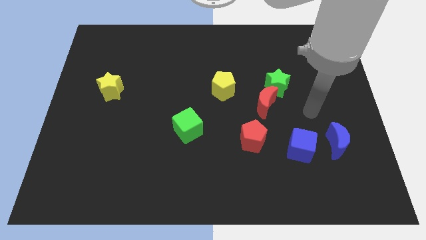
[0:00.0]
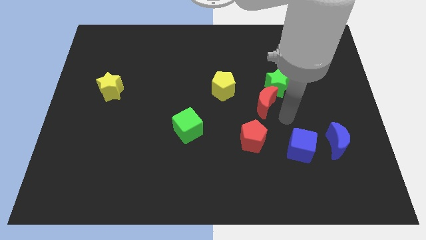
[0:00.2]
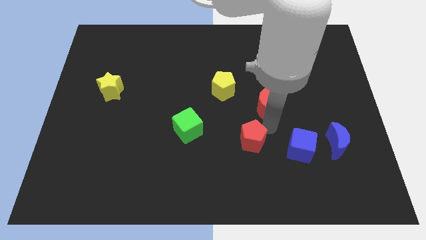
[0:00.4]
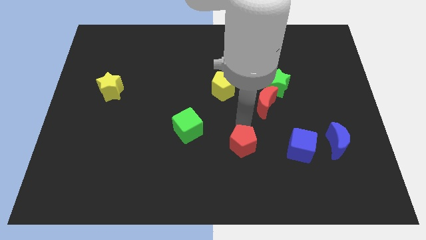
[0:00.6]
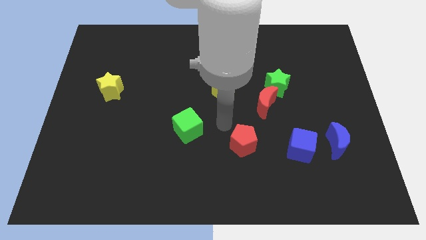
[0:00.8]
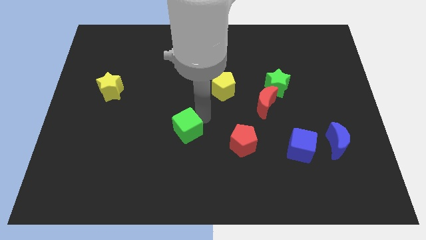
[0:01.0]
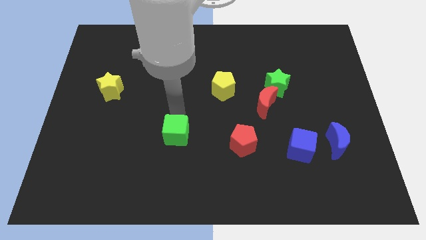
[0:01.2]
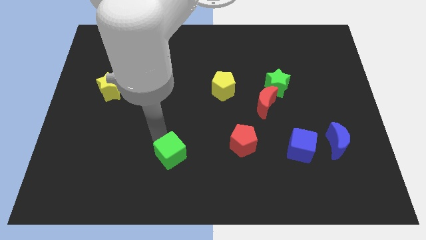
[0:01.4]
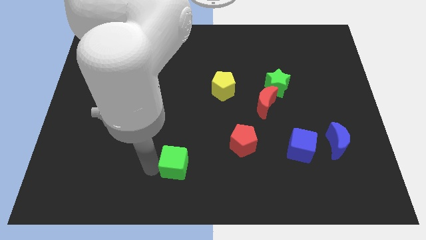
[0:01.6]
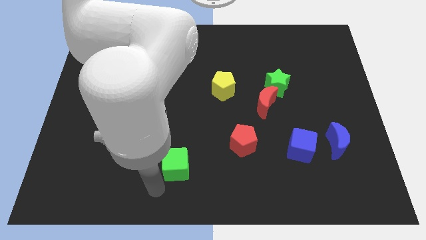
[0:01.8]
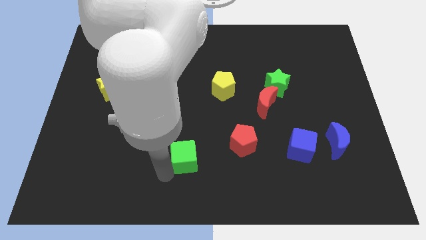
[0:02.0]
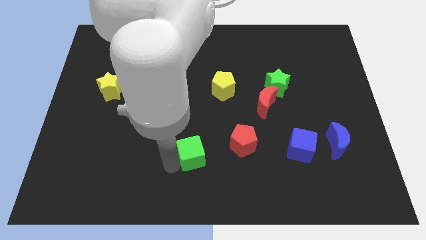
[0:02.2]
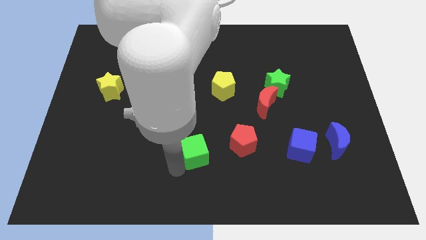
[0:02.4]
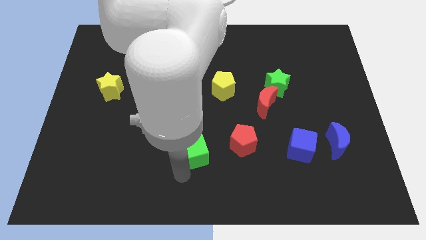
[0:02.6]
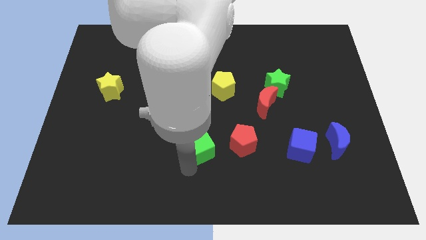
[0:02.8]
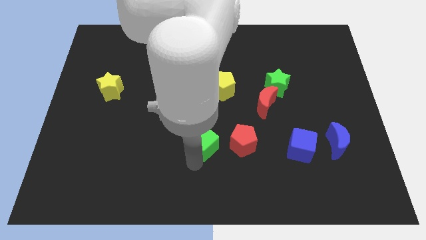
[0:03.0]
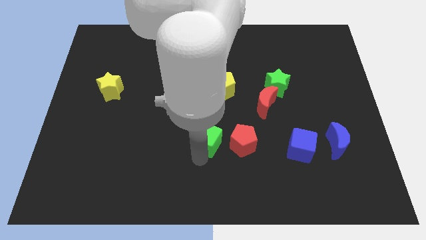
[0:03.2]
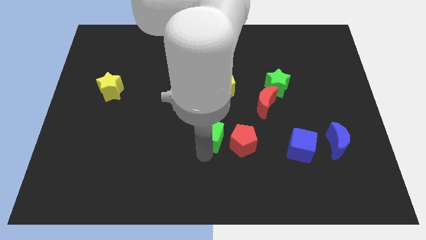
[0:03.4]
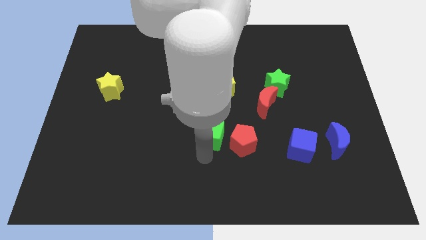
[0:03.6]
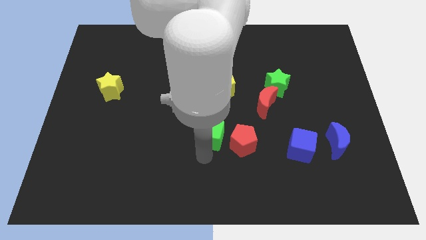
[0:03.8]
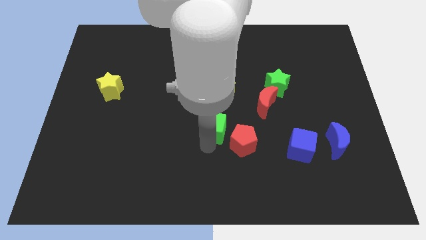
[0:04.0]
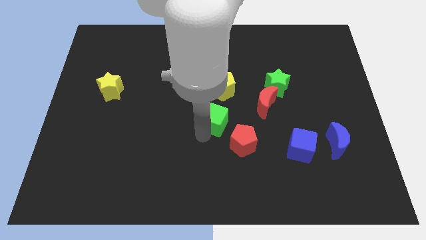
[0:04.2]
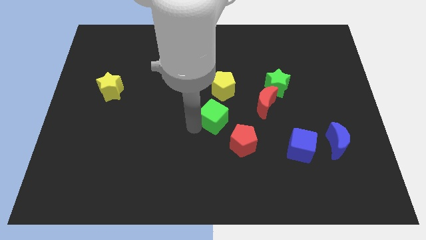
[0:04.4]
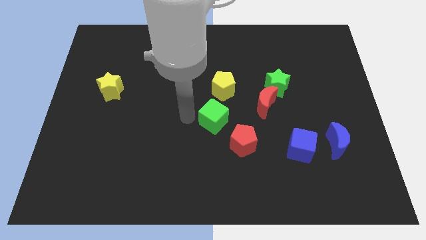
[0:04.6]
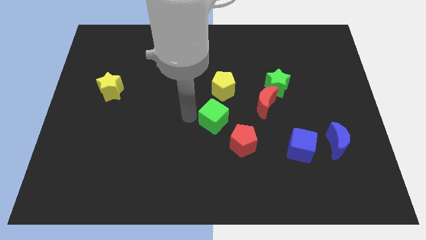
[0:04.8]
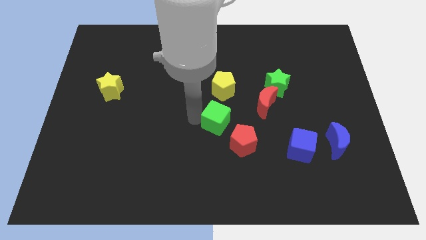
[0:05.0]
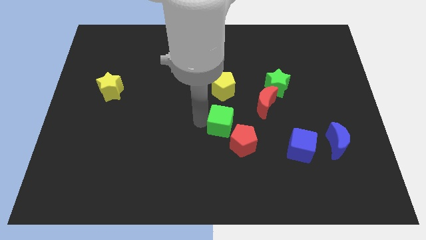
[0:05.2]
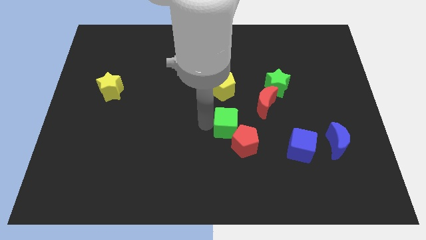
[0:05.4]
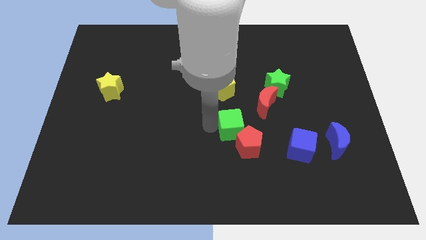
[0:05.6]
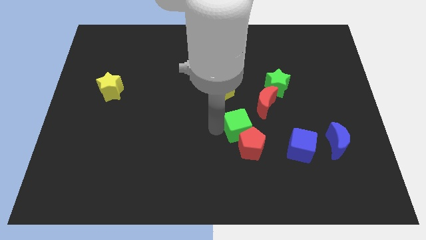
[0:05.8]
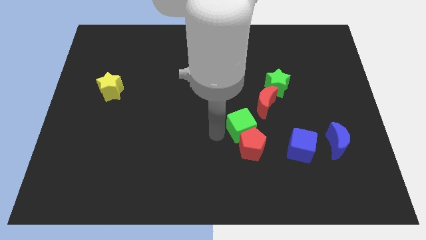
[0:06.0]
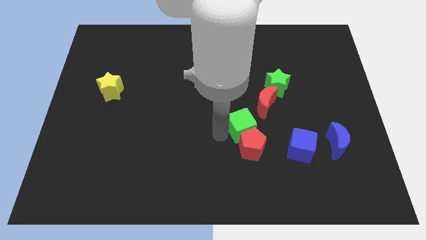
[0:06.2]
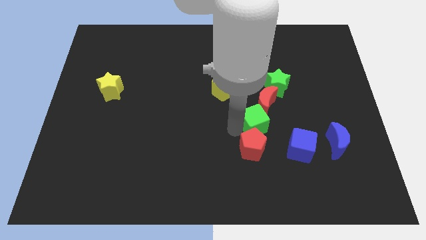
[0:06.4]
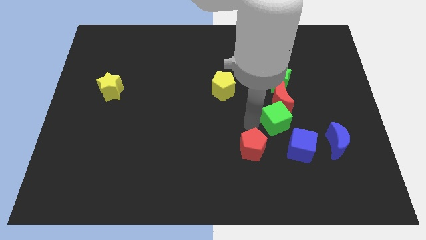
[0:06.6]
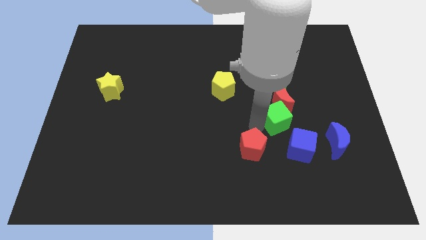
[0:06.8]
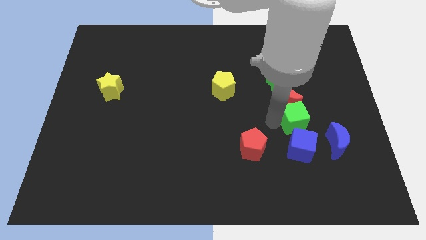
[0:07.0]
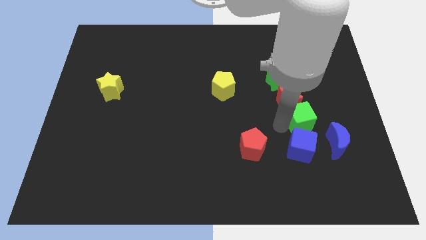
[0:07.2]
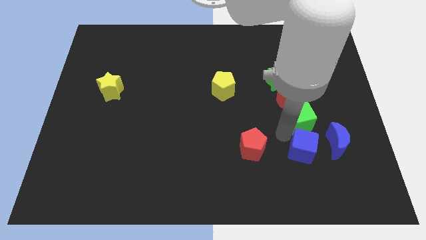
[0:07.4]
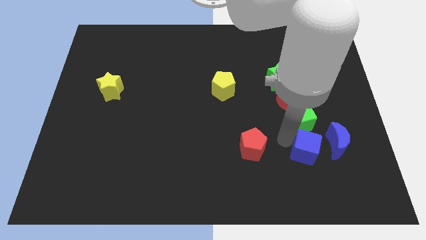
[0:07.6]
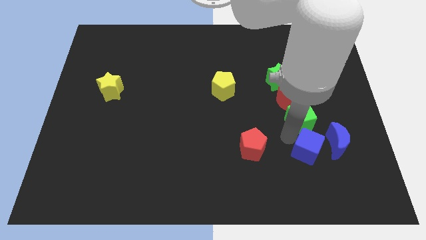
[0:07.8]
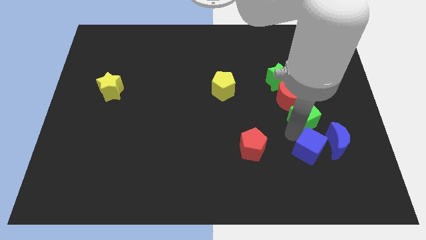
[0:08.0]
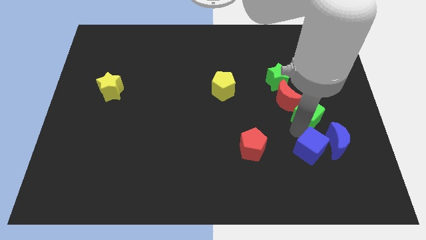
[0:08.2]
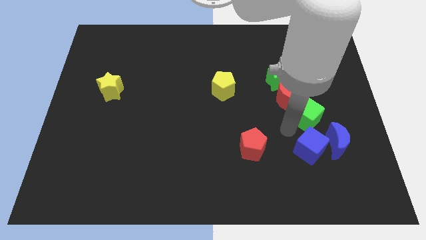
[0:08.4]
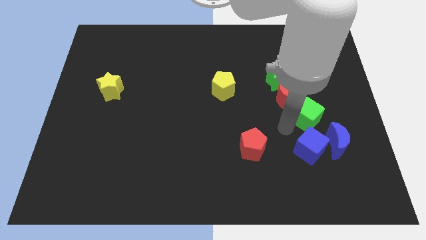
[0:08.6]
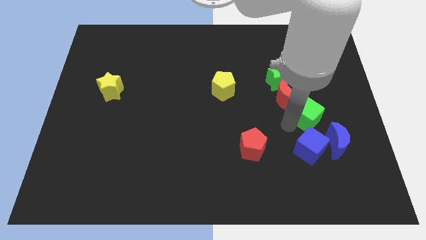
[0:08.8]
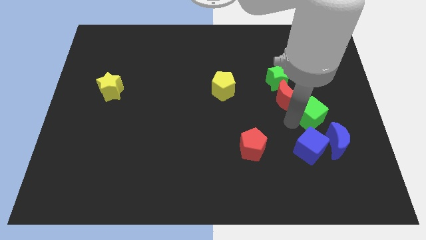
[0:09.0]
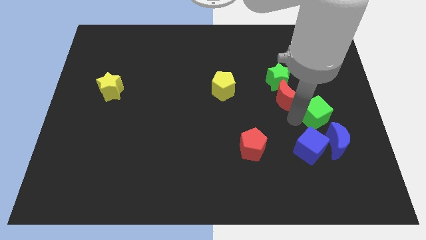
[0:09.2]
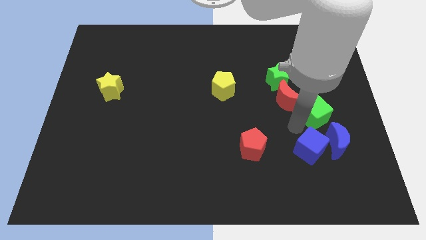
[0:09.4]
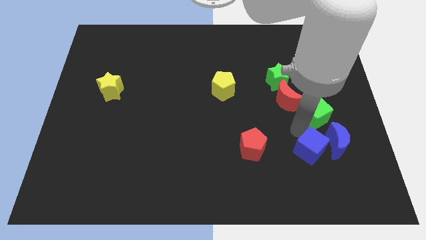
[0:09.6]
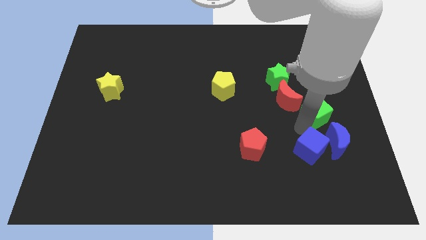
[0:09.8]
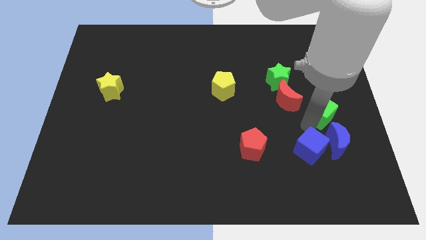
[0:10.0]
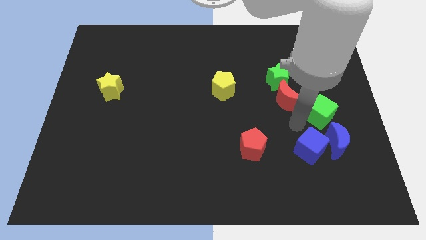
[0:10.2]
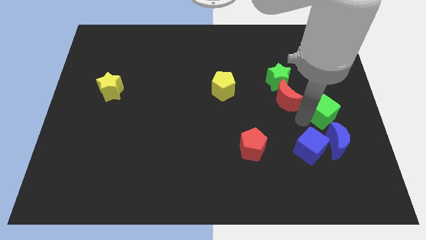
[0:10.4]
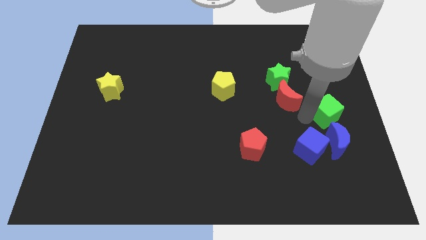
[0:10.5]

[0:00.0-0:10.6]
push the green cube to the center right

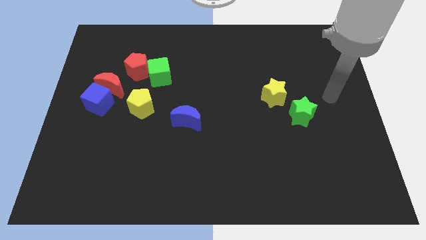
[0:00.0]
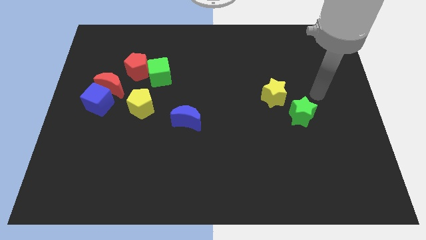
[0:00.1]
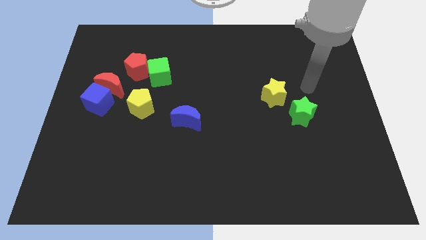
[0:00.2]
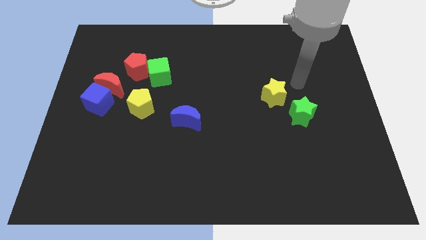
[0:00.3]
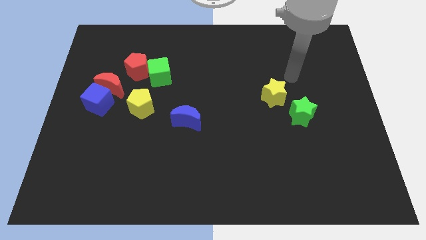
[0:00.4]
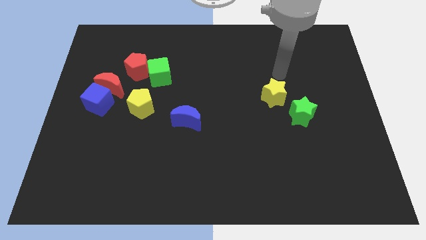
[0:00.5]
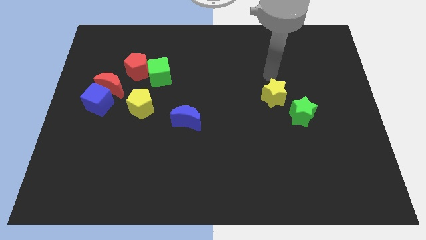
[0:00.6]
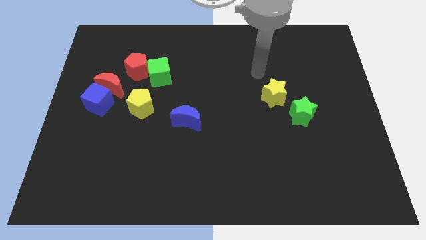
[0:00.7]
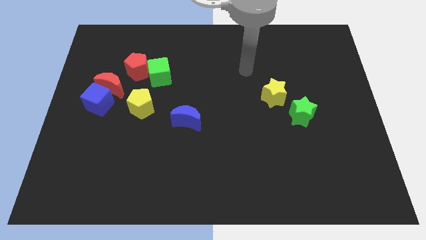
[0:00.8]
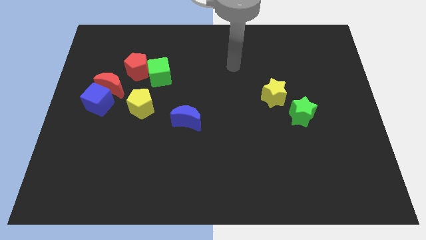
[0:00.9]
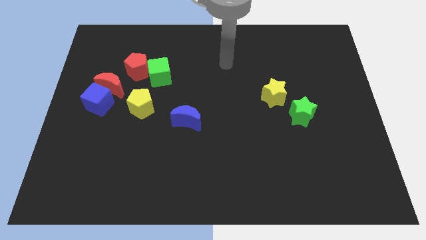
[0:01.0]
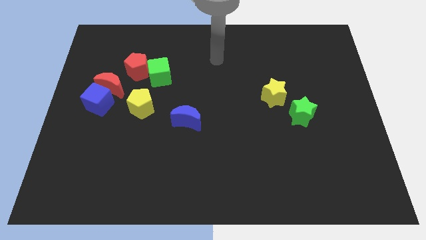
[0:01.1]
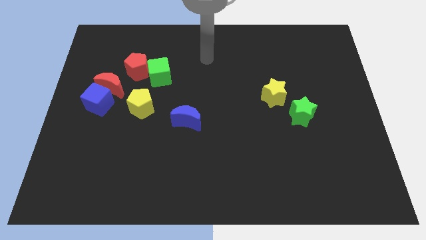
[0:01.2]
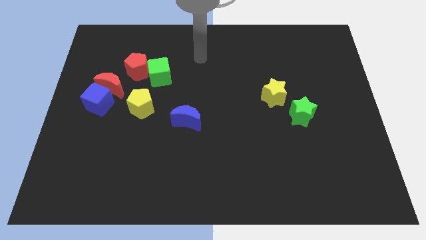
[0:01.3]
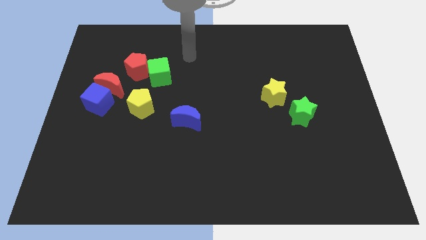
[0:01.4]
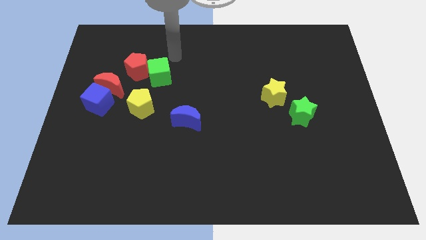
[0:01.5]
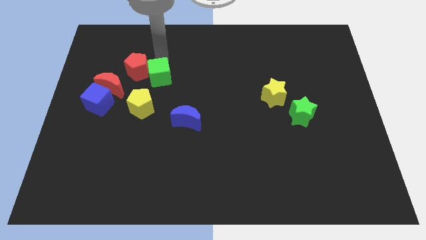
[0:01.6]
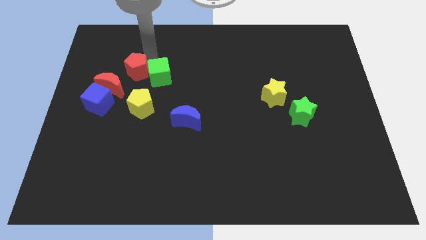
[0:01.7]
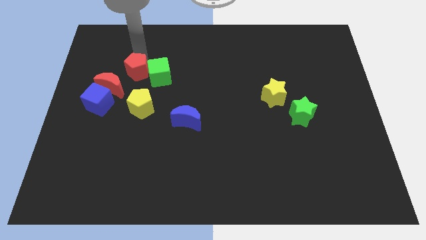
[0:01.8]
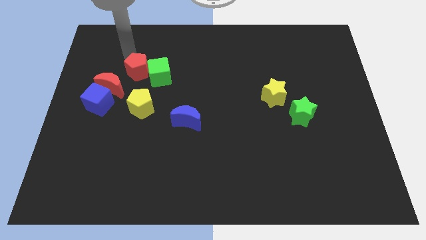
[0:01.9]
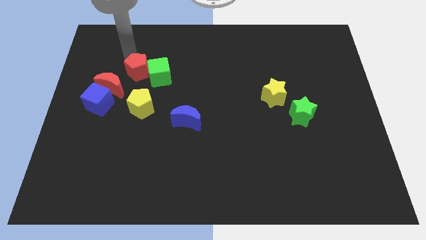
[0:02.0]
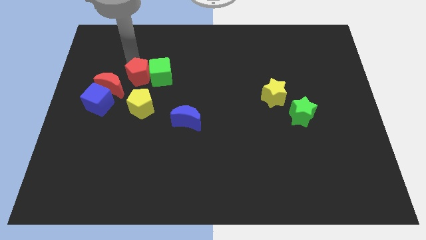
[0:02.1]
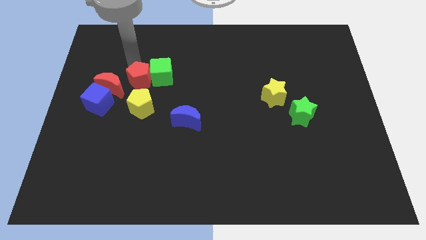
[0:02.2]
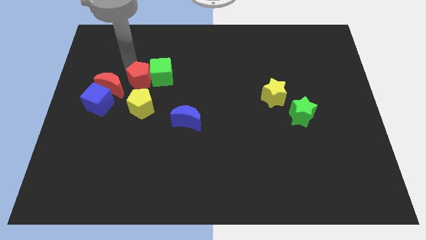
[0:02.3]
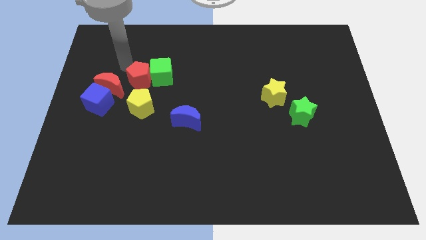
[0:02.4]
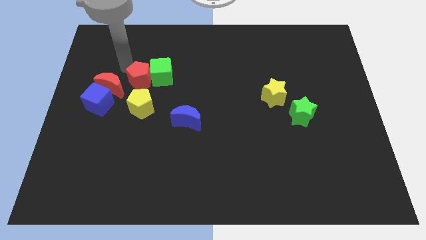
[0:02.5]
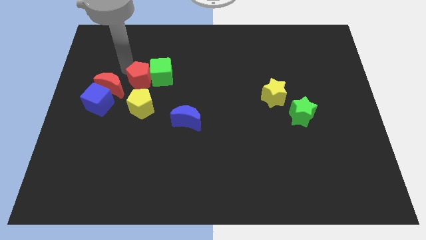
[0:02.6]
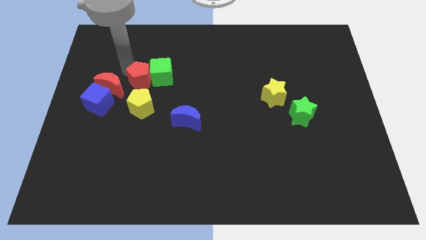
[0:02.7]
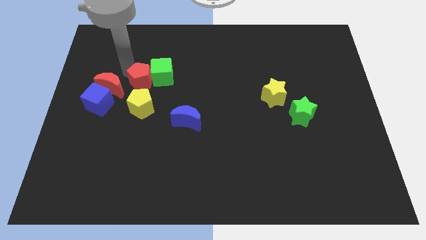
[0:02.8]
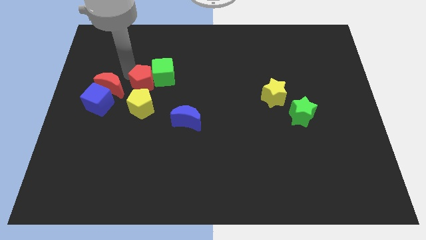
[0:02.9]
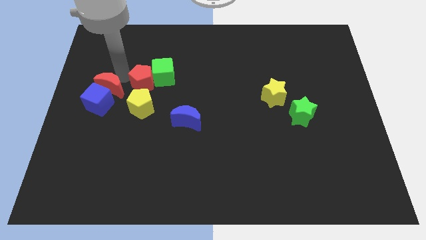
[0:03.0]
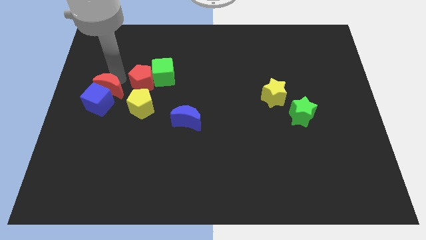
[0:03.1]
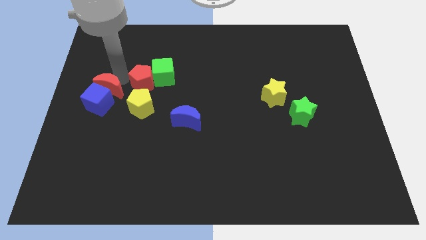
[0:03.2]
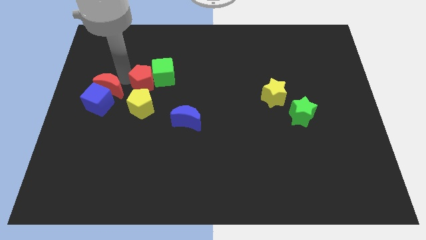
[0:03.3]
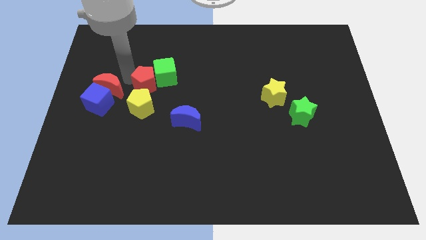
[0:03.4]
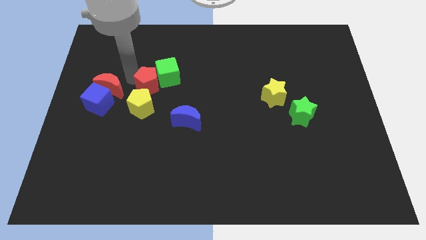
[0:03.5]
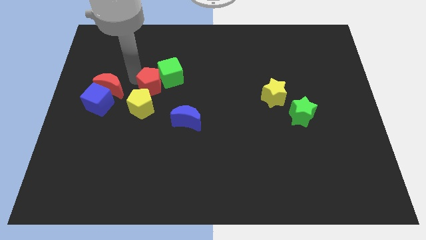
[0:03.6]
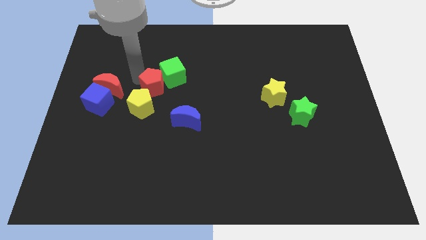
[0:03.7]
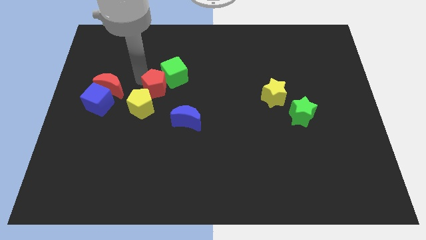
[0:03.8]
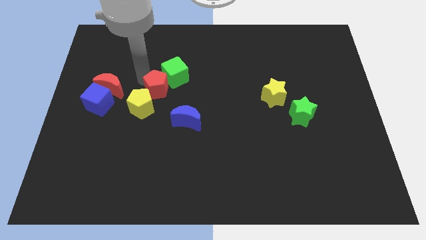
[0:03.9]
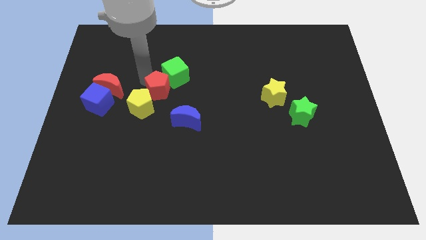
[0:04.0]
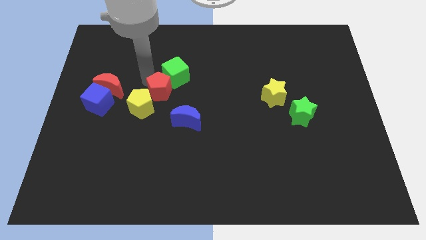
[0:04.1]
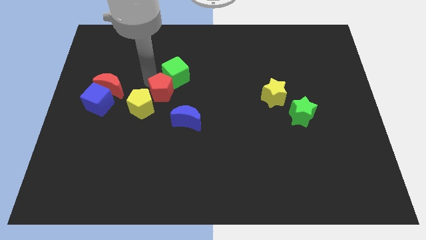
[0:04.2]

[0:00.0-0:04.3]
move the red pentagon to the center of the board
